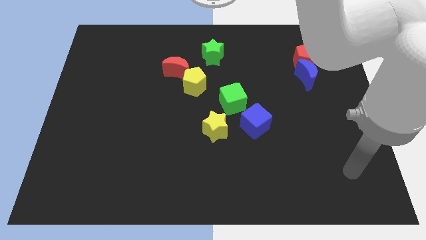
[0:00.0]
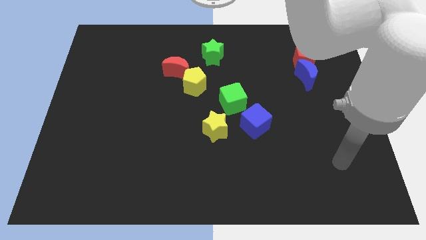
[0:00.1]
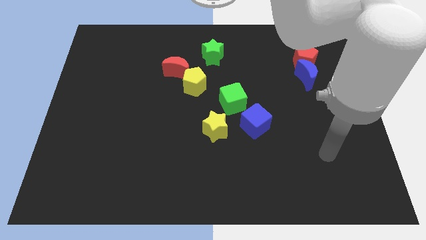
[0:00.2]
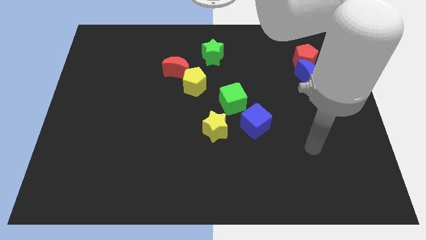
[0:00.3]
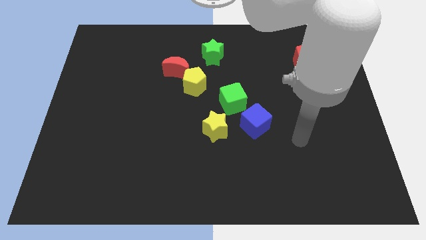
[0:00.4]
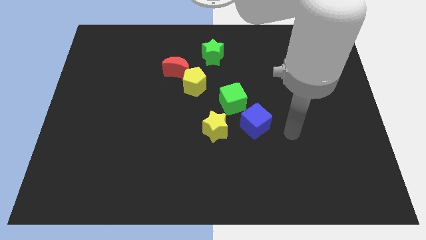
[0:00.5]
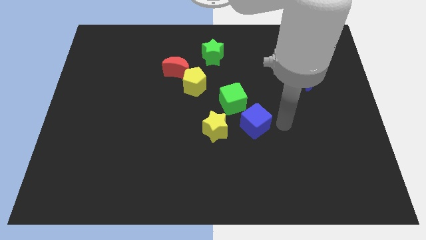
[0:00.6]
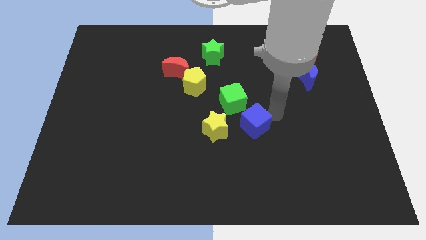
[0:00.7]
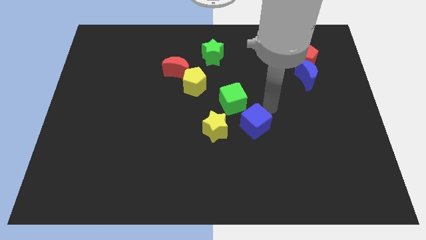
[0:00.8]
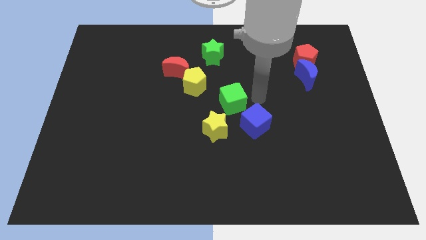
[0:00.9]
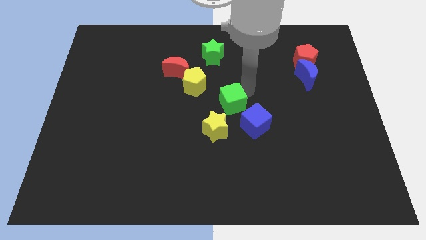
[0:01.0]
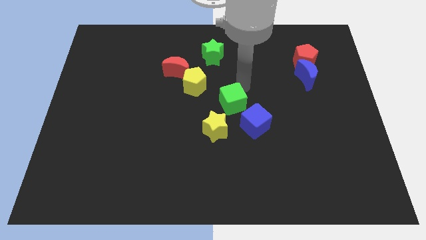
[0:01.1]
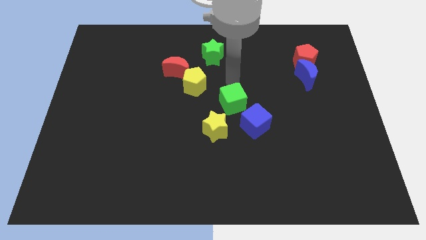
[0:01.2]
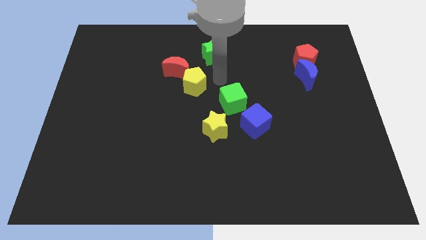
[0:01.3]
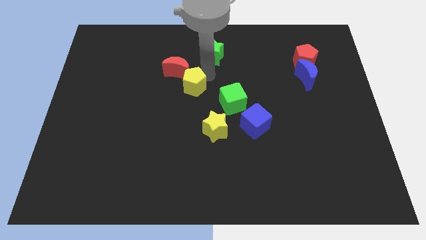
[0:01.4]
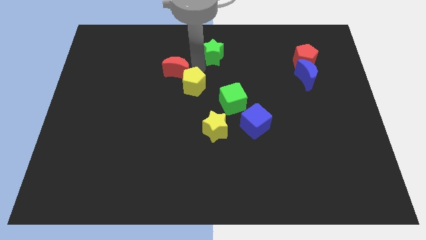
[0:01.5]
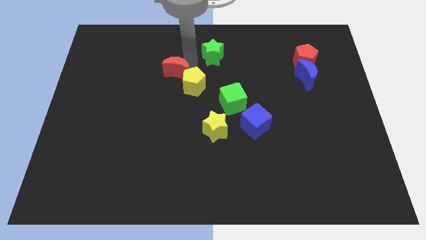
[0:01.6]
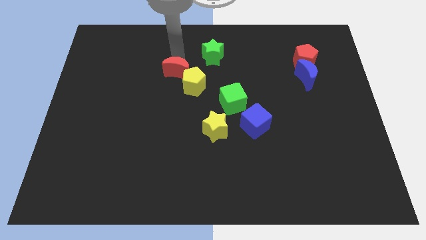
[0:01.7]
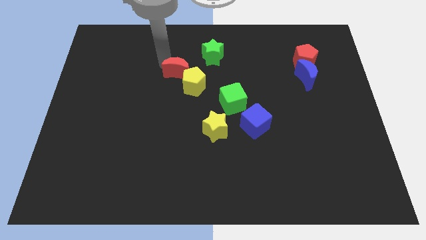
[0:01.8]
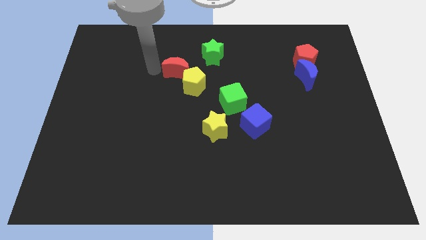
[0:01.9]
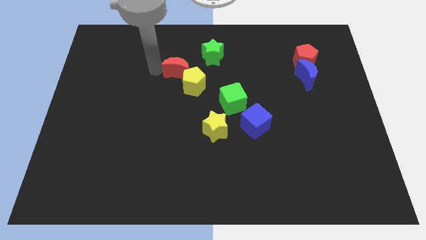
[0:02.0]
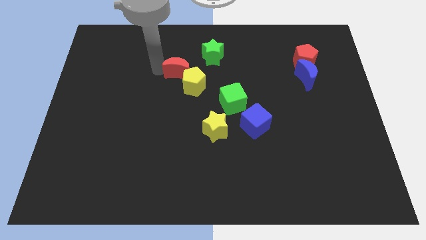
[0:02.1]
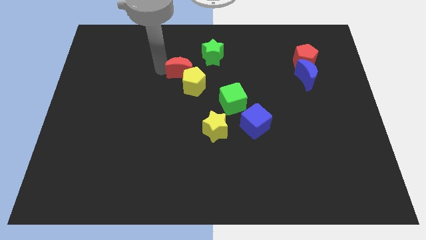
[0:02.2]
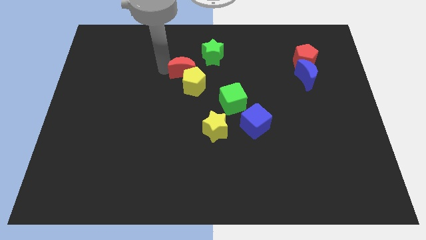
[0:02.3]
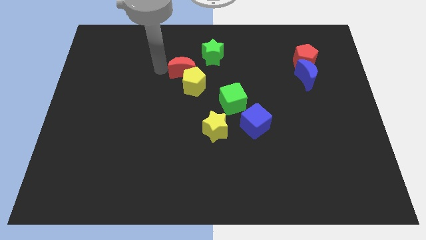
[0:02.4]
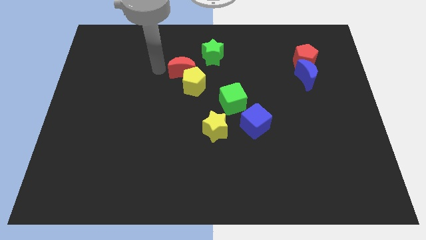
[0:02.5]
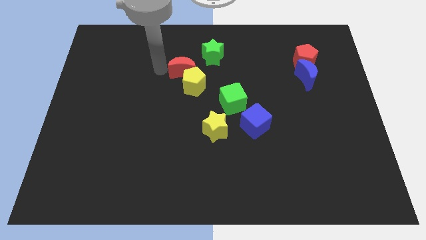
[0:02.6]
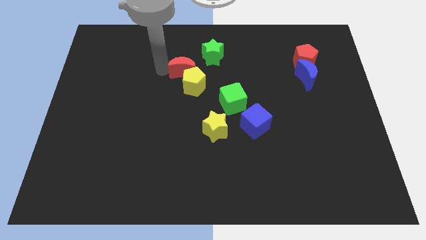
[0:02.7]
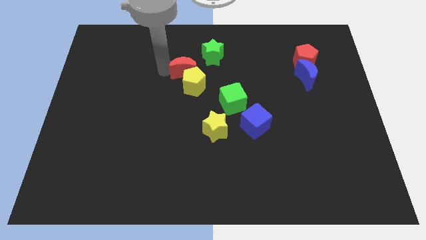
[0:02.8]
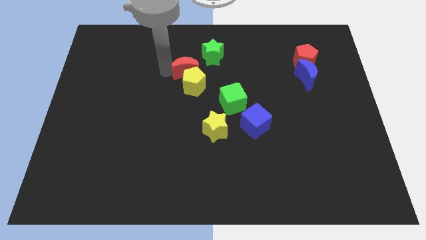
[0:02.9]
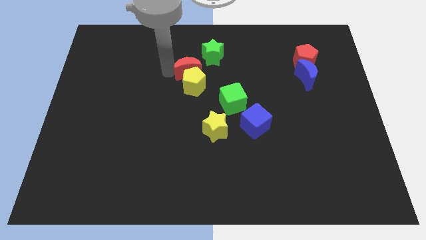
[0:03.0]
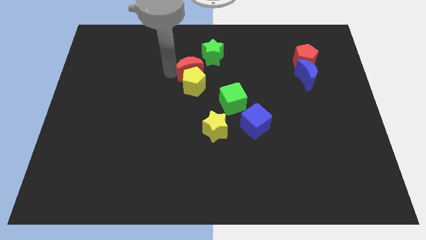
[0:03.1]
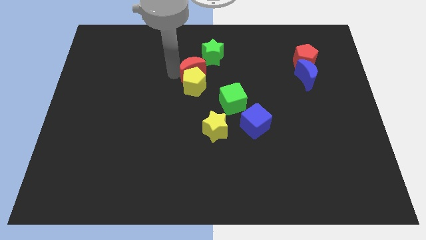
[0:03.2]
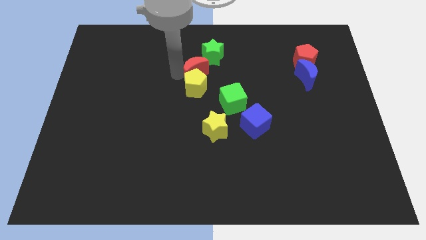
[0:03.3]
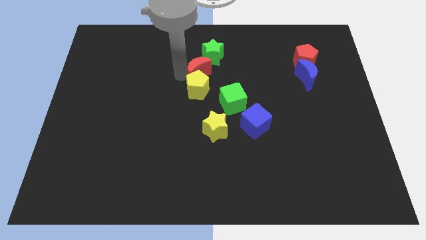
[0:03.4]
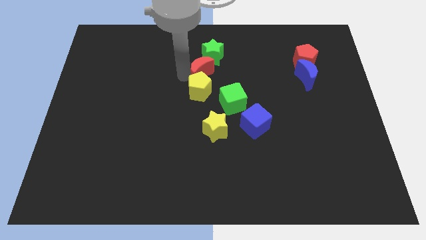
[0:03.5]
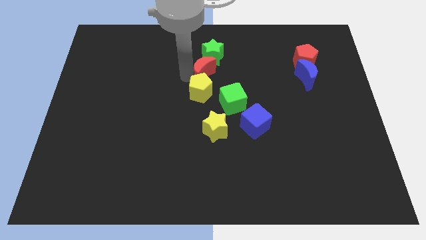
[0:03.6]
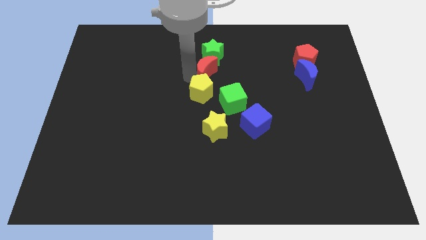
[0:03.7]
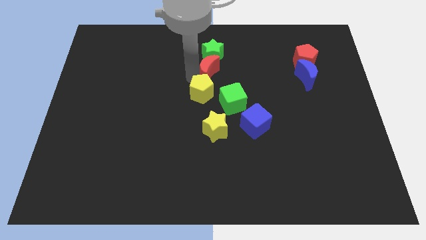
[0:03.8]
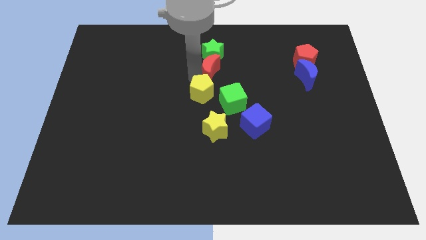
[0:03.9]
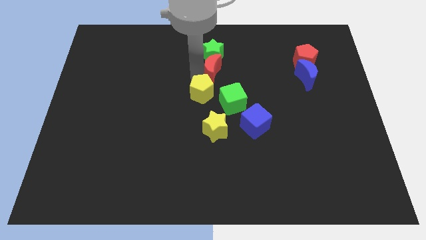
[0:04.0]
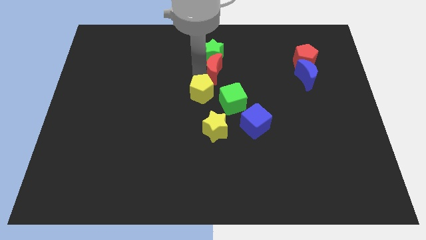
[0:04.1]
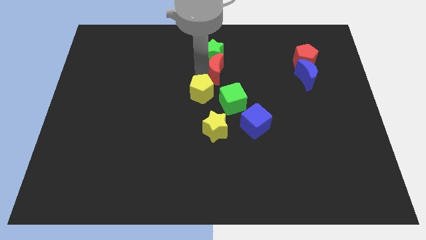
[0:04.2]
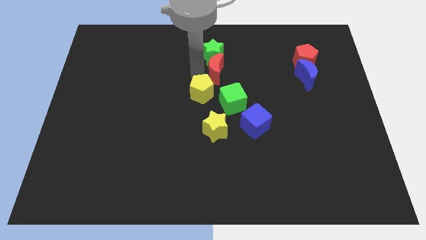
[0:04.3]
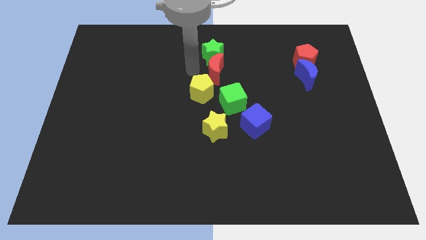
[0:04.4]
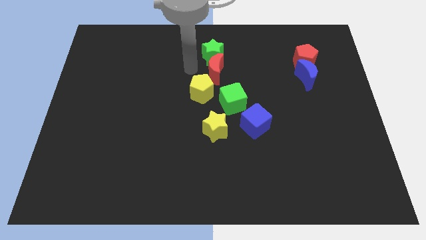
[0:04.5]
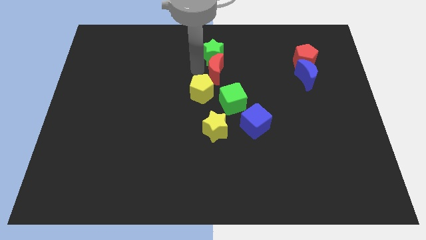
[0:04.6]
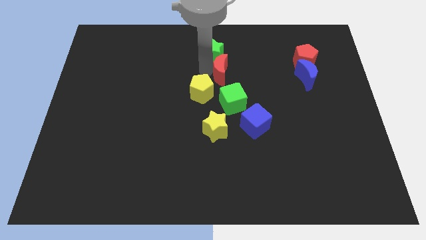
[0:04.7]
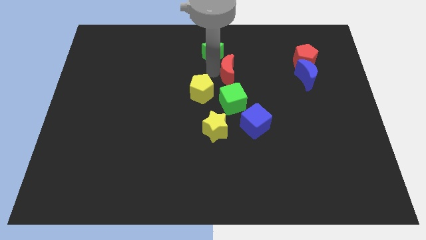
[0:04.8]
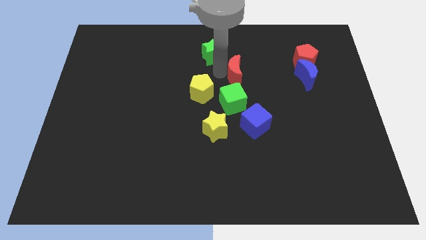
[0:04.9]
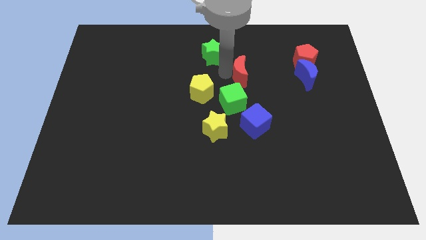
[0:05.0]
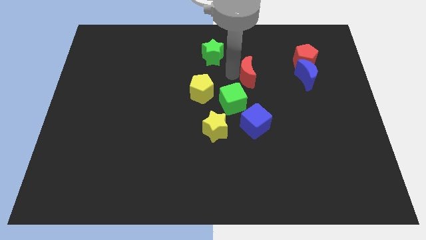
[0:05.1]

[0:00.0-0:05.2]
push the red moon to the left side of the blue moon

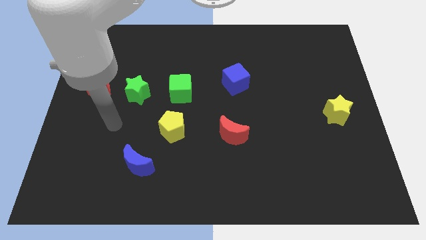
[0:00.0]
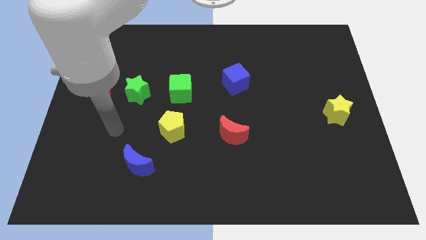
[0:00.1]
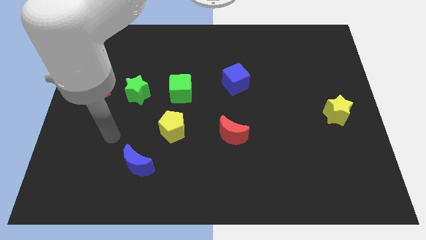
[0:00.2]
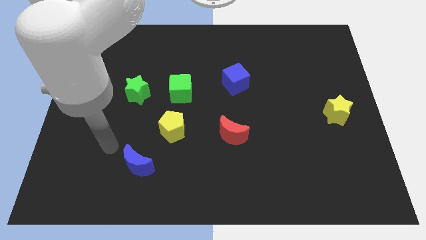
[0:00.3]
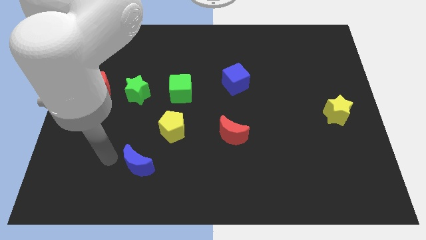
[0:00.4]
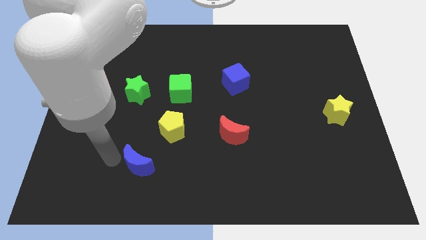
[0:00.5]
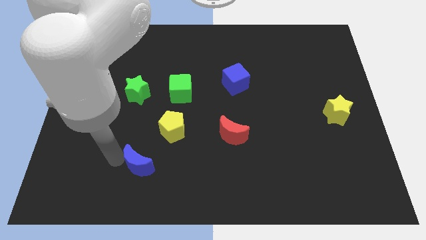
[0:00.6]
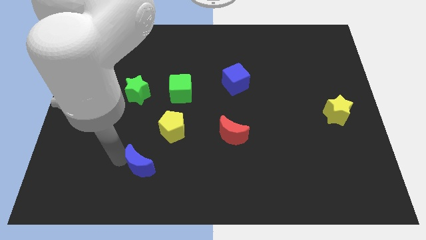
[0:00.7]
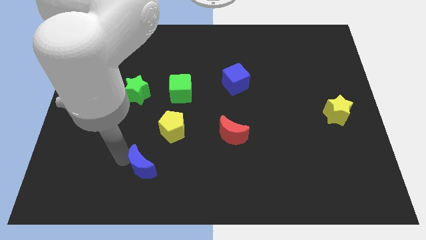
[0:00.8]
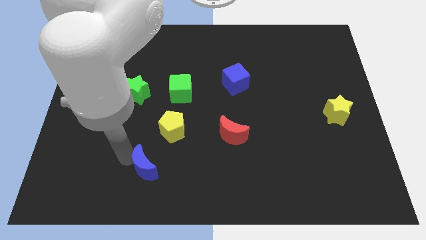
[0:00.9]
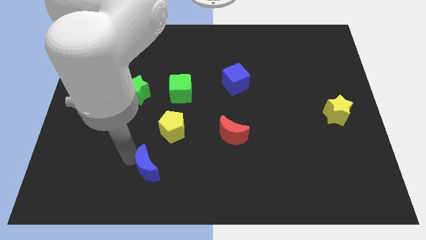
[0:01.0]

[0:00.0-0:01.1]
slide the blue moon to the bottom side of the yellow pentagon

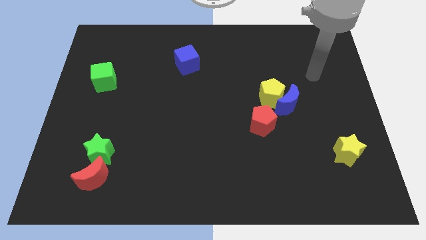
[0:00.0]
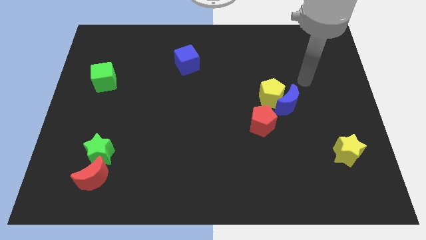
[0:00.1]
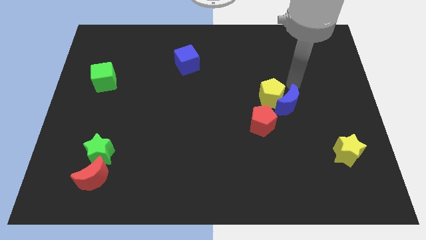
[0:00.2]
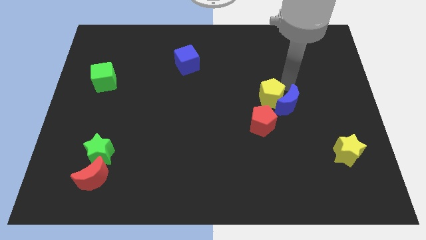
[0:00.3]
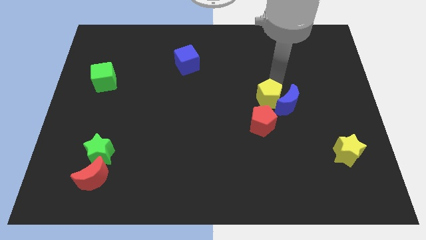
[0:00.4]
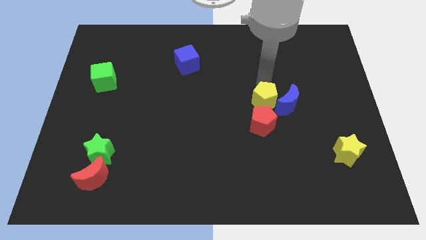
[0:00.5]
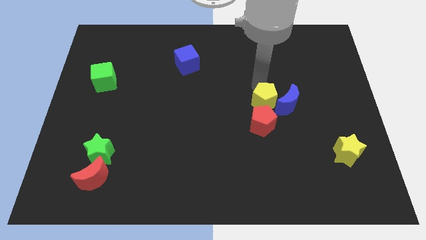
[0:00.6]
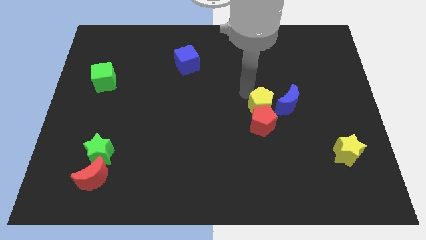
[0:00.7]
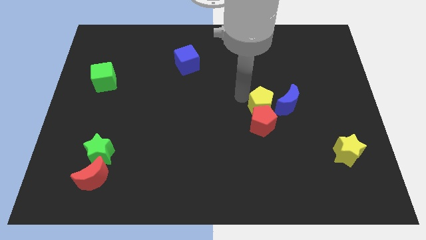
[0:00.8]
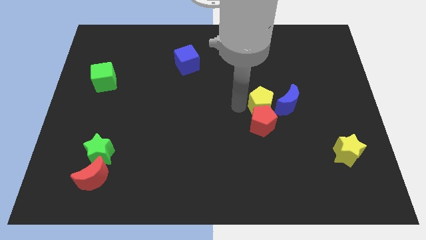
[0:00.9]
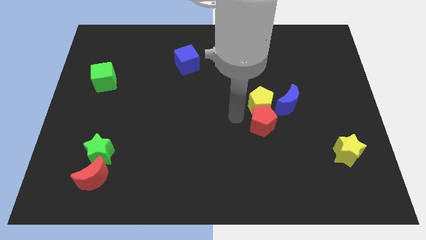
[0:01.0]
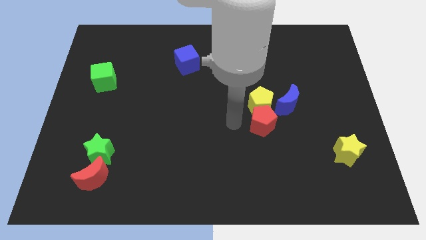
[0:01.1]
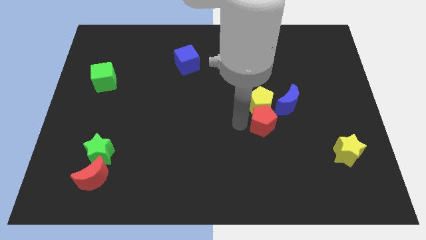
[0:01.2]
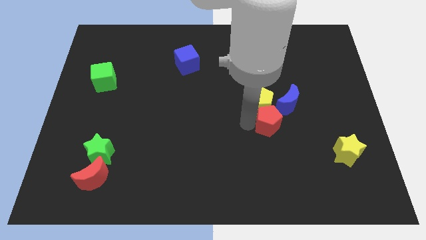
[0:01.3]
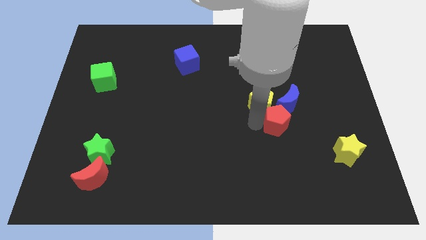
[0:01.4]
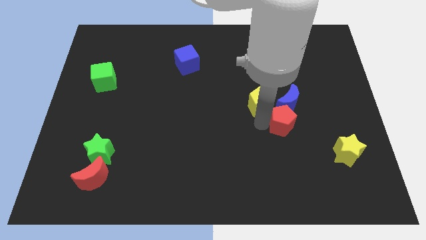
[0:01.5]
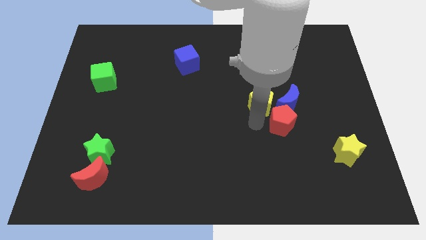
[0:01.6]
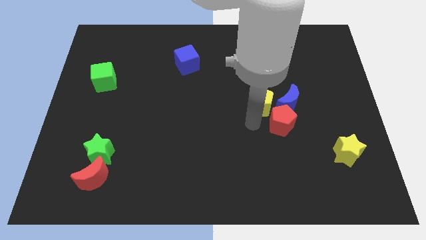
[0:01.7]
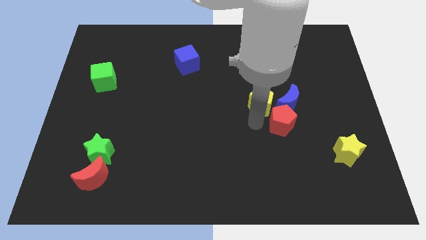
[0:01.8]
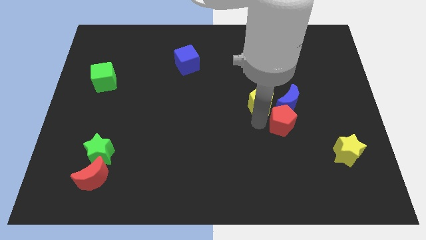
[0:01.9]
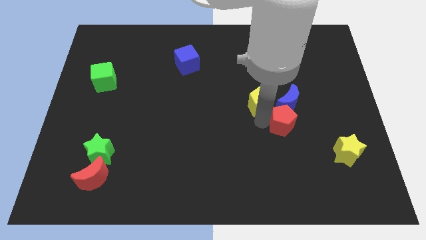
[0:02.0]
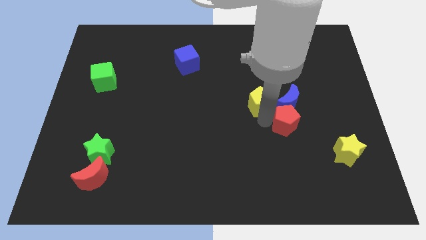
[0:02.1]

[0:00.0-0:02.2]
push the red pentagon to the bottom right of the blue moon

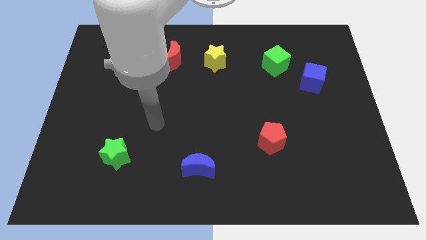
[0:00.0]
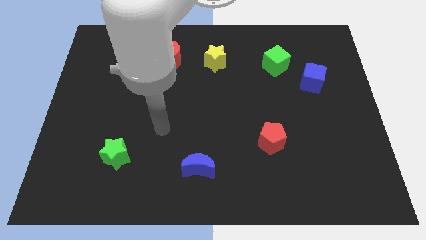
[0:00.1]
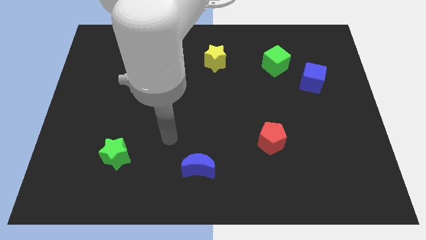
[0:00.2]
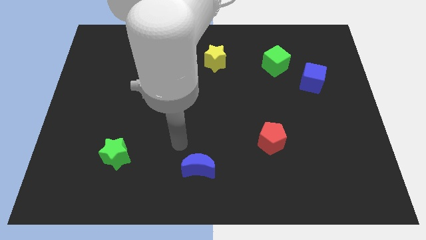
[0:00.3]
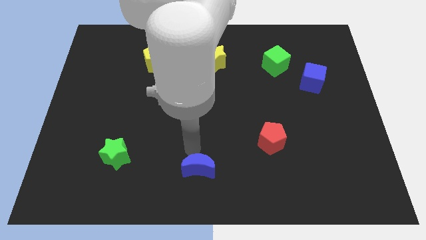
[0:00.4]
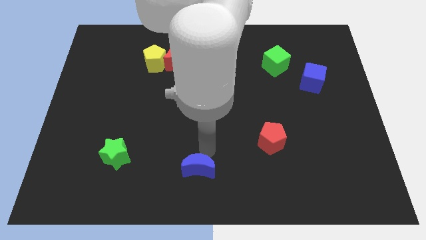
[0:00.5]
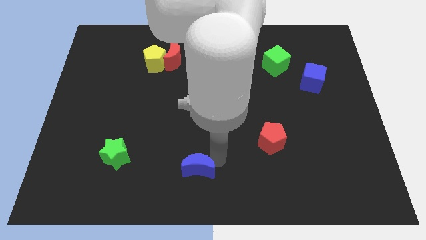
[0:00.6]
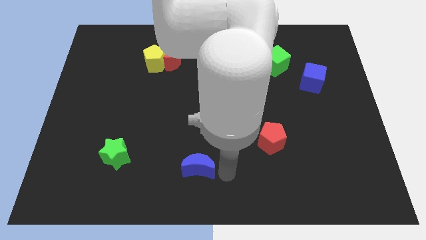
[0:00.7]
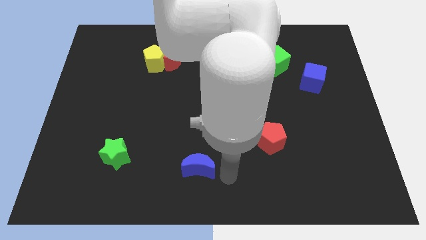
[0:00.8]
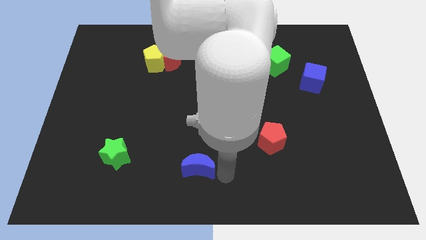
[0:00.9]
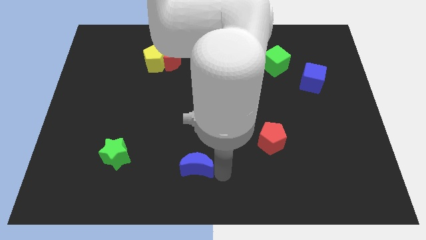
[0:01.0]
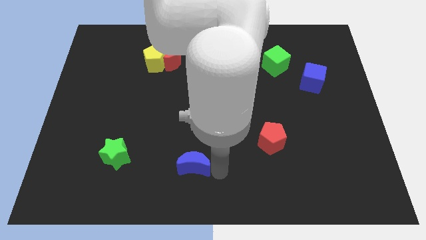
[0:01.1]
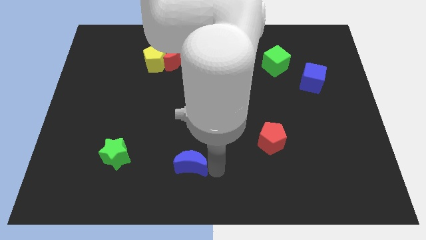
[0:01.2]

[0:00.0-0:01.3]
put the blue moon to the right side of the green star
